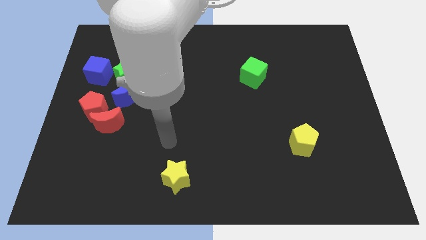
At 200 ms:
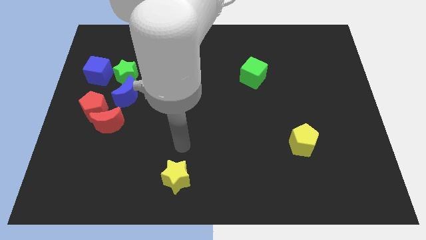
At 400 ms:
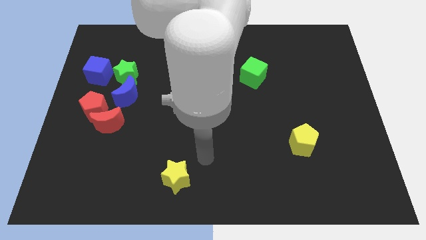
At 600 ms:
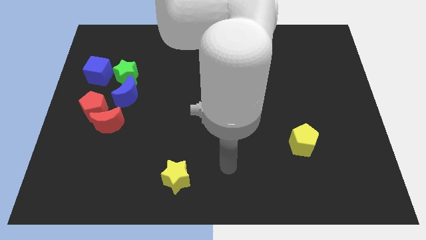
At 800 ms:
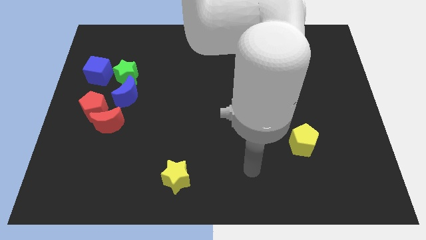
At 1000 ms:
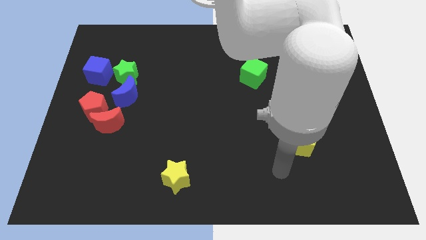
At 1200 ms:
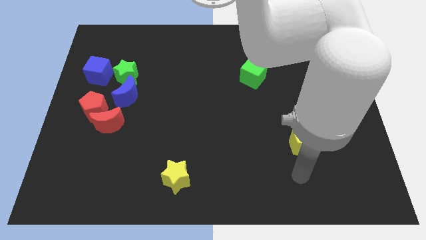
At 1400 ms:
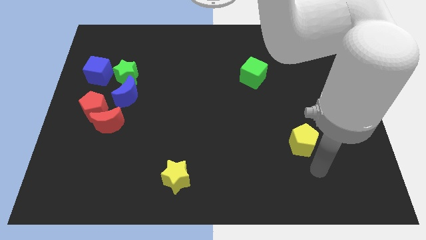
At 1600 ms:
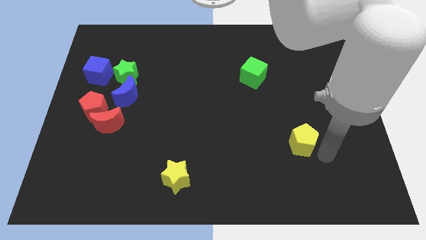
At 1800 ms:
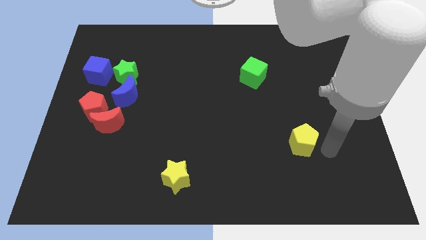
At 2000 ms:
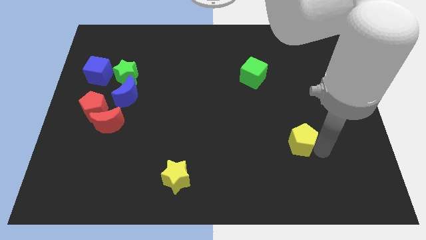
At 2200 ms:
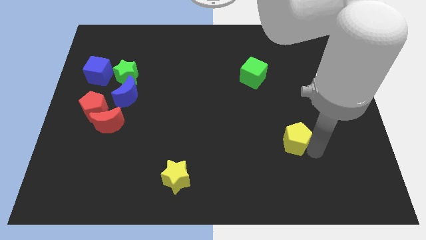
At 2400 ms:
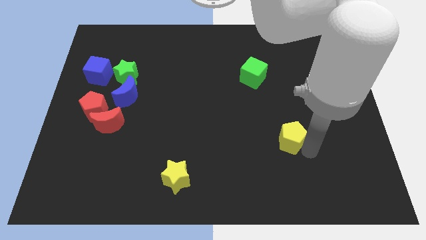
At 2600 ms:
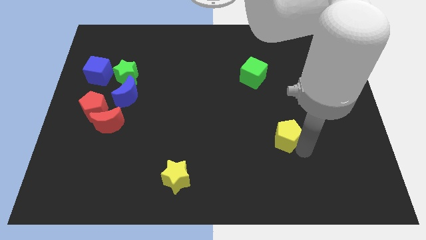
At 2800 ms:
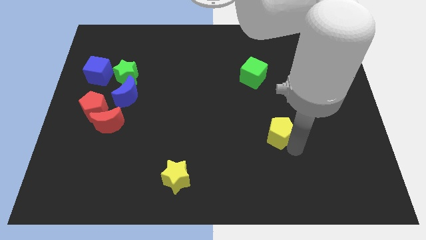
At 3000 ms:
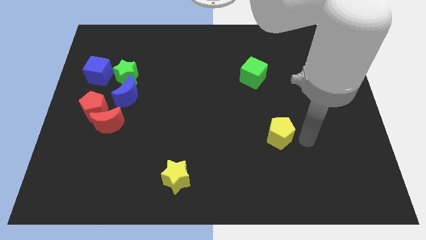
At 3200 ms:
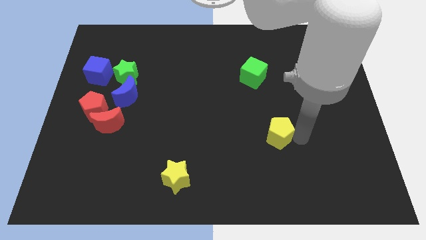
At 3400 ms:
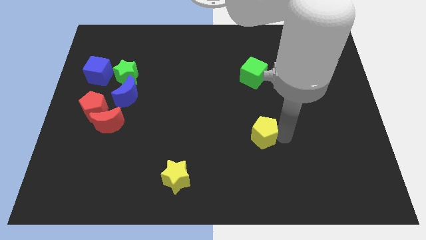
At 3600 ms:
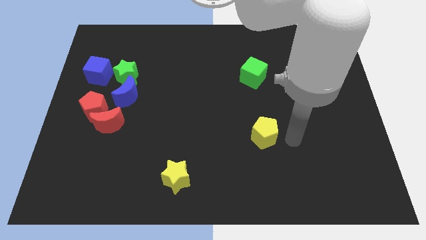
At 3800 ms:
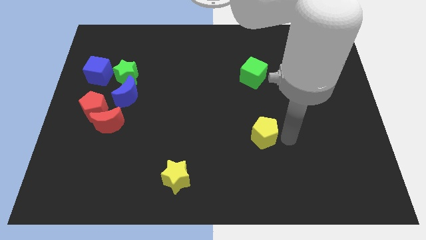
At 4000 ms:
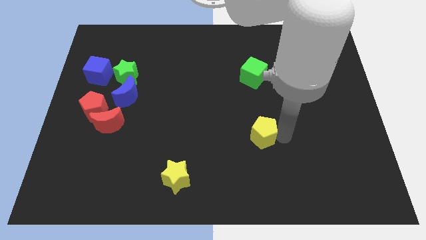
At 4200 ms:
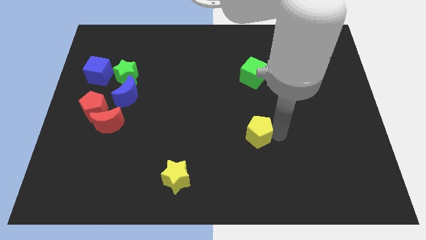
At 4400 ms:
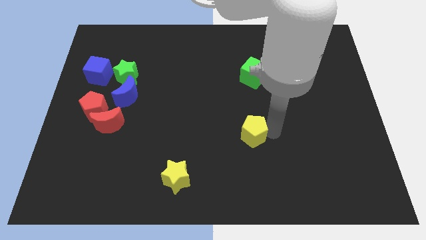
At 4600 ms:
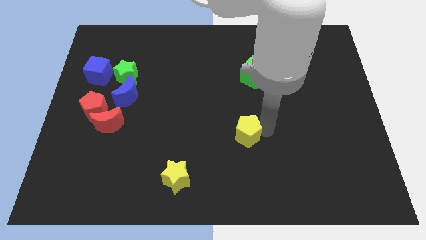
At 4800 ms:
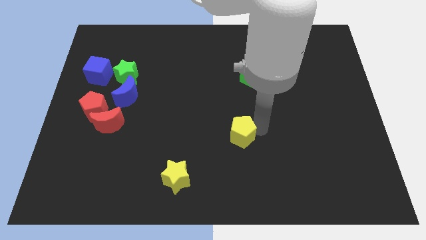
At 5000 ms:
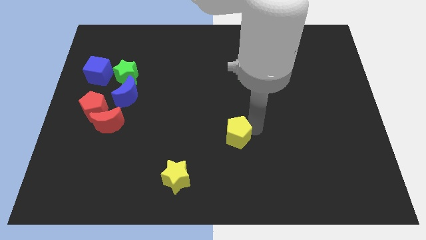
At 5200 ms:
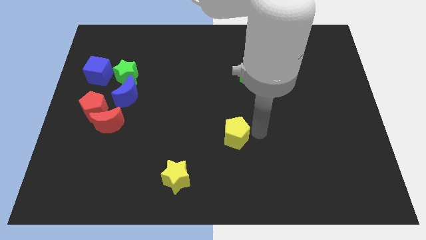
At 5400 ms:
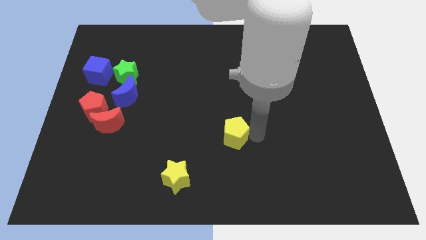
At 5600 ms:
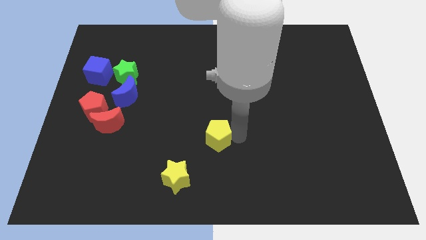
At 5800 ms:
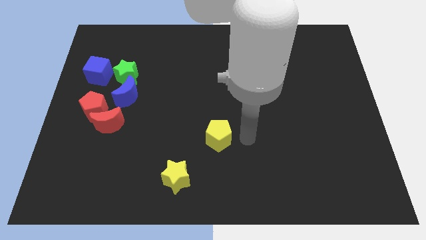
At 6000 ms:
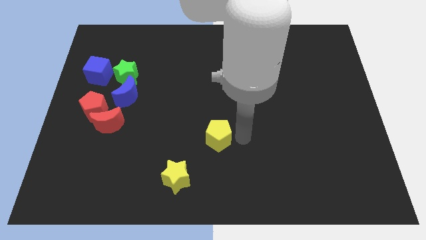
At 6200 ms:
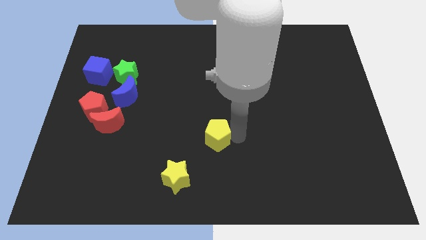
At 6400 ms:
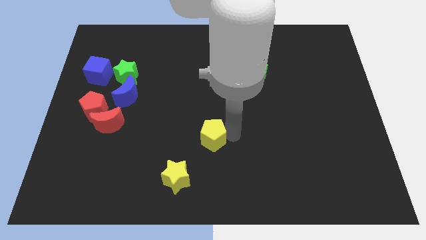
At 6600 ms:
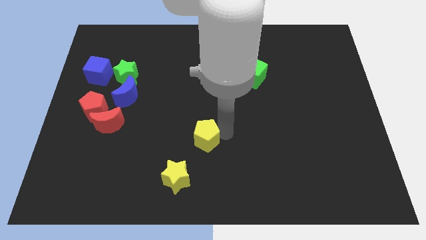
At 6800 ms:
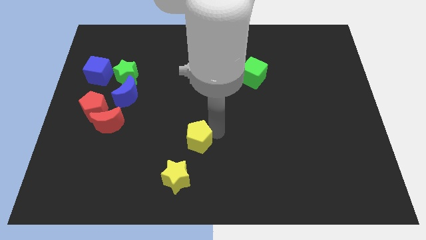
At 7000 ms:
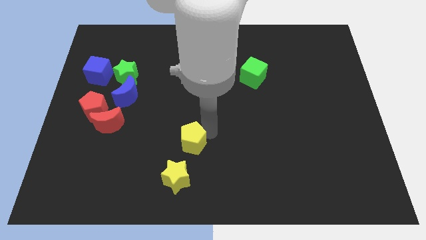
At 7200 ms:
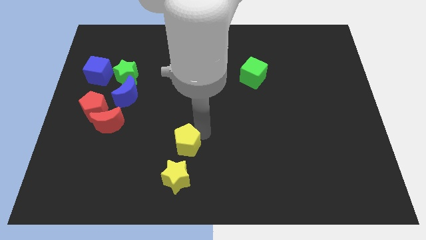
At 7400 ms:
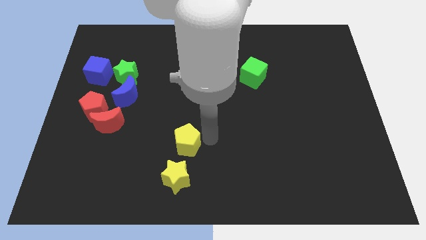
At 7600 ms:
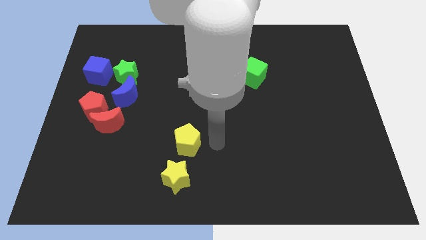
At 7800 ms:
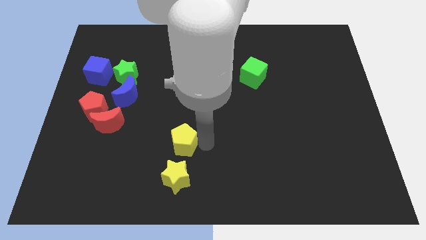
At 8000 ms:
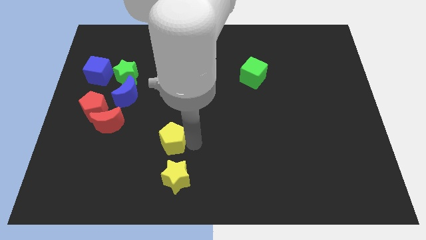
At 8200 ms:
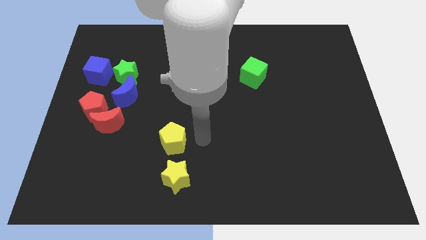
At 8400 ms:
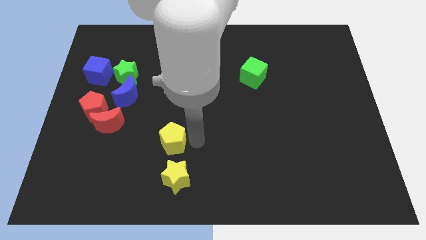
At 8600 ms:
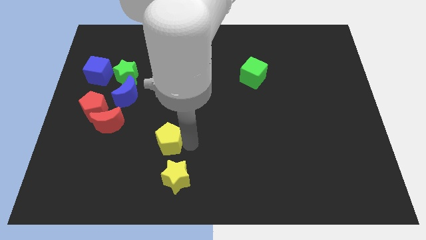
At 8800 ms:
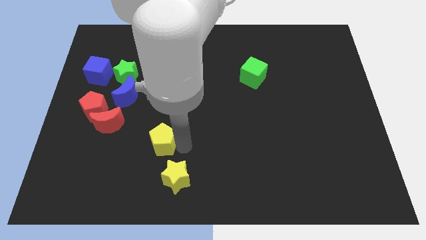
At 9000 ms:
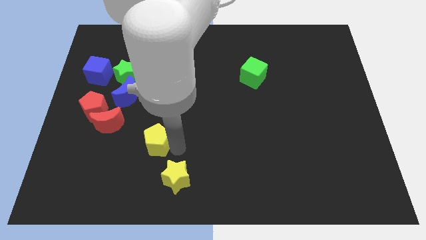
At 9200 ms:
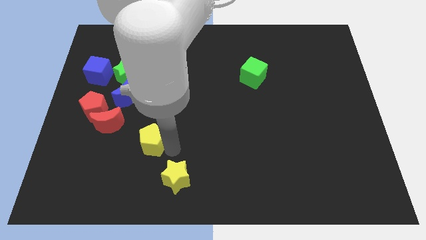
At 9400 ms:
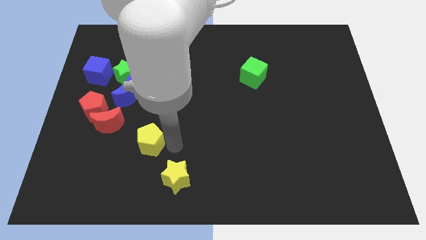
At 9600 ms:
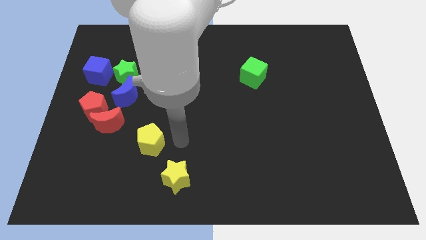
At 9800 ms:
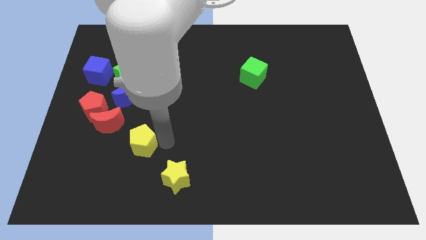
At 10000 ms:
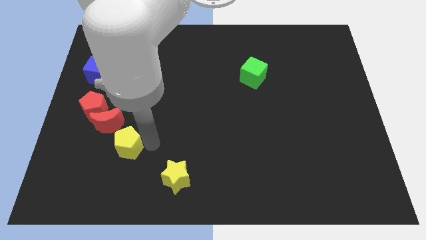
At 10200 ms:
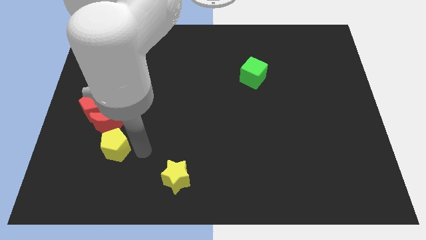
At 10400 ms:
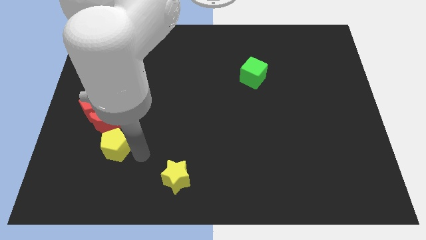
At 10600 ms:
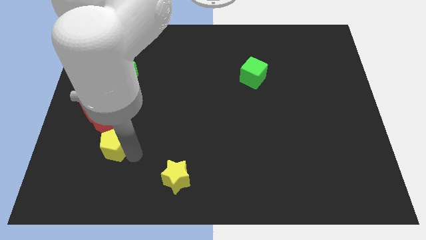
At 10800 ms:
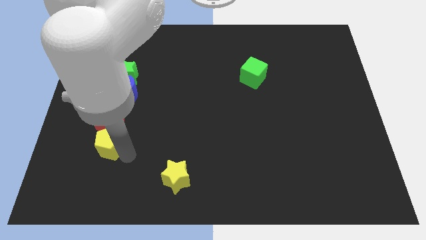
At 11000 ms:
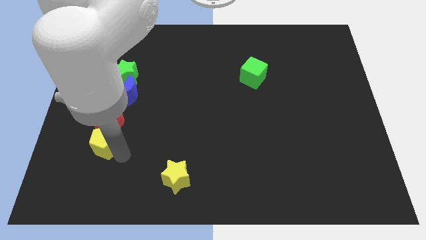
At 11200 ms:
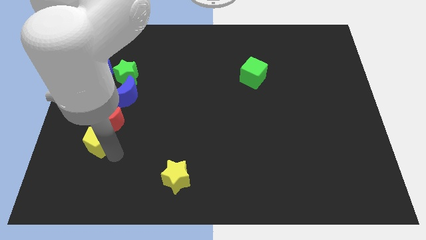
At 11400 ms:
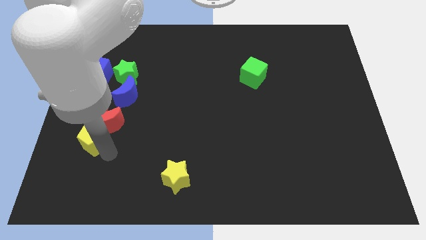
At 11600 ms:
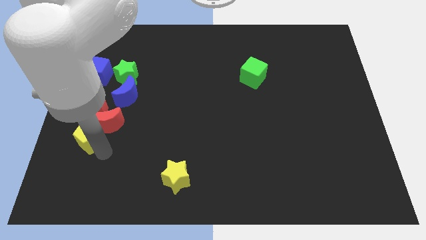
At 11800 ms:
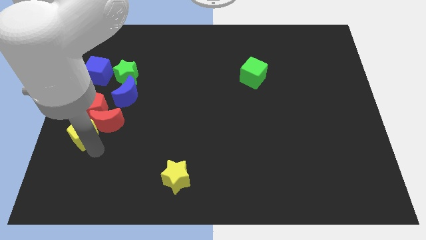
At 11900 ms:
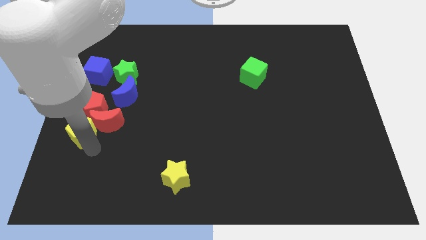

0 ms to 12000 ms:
move the yellow pentagon to the left side
